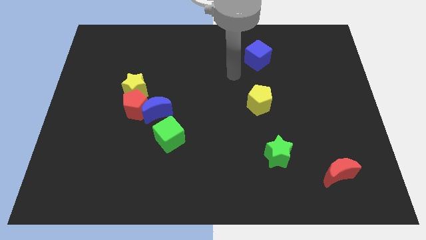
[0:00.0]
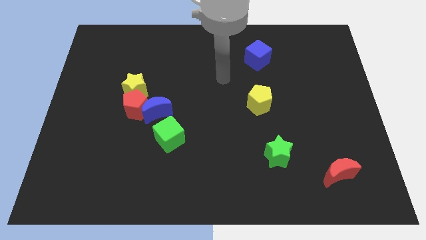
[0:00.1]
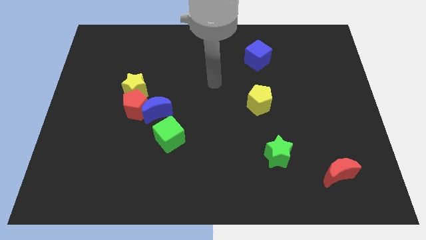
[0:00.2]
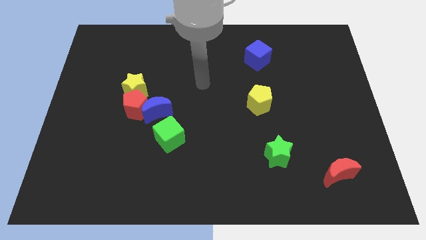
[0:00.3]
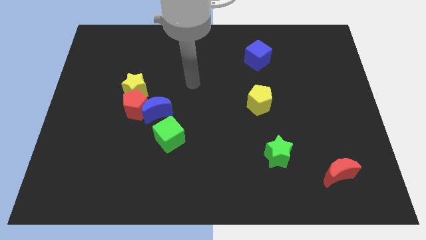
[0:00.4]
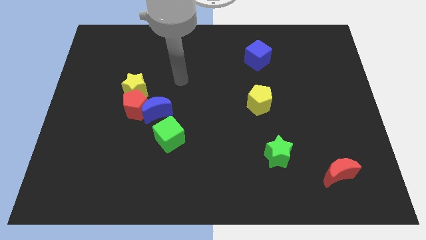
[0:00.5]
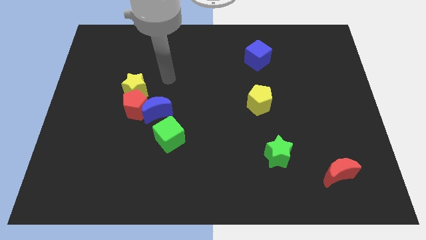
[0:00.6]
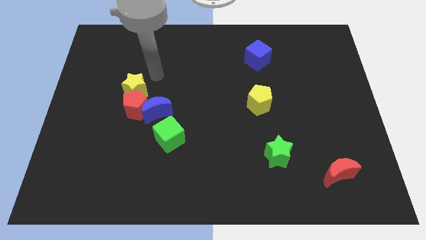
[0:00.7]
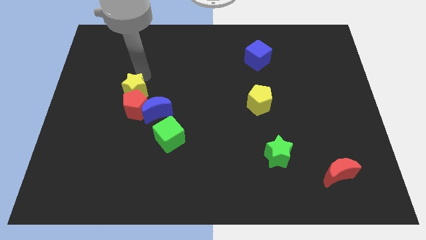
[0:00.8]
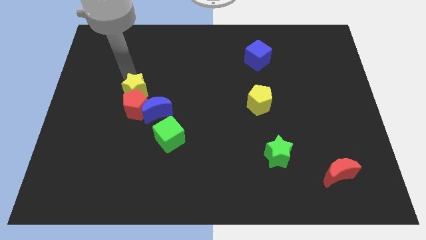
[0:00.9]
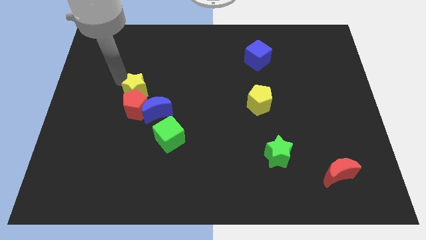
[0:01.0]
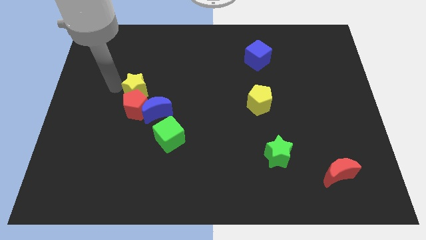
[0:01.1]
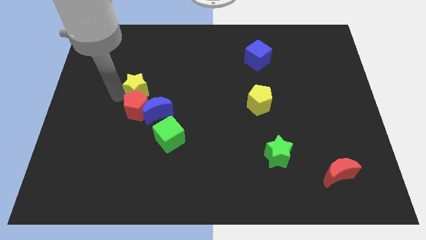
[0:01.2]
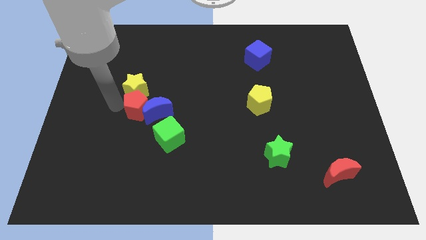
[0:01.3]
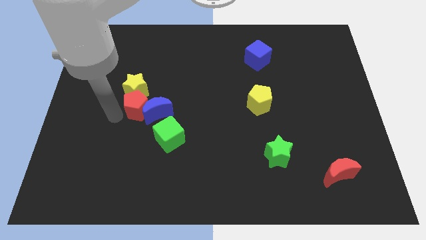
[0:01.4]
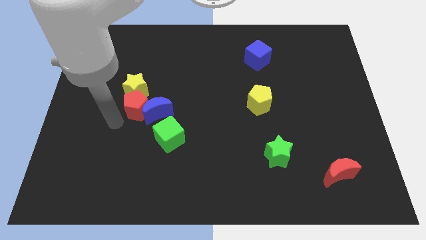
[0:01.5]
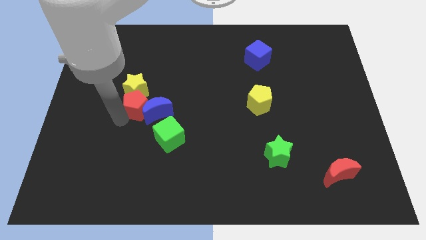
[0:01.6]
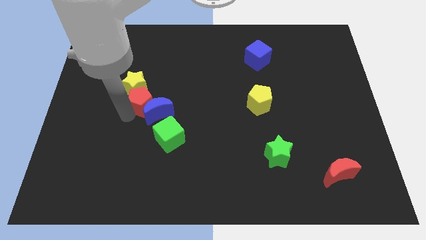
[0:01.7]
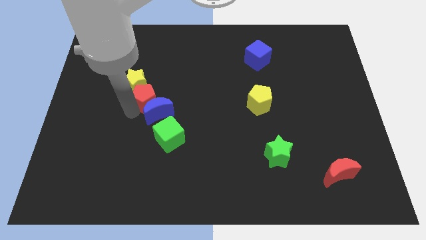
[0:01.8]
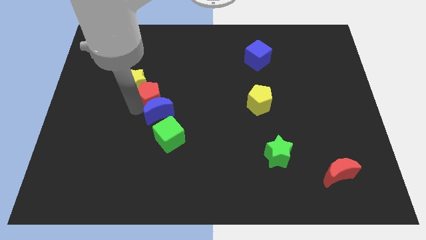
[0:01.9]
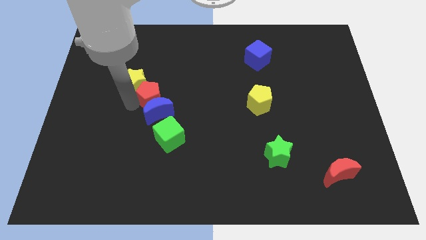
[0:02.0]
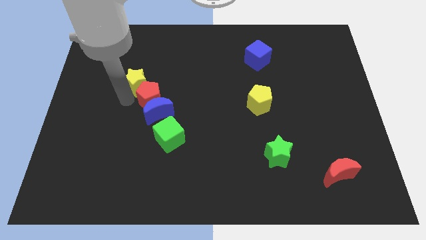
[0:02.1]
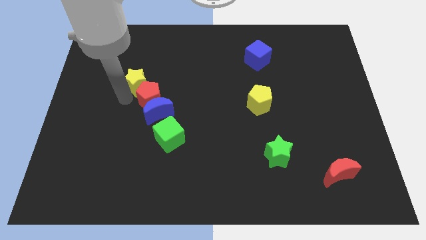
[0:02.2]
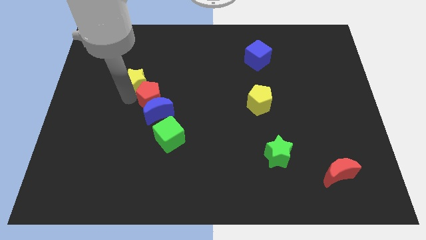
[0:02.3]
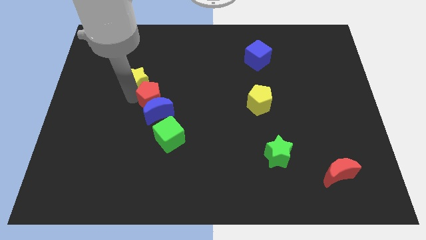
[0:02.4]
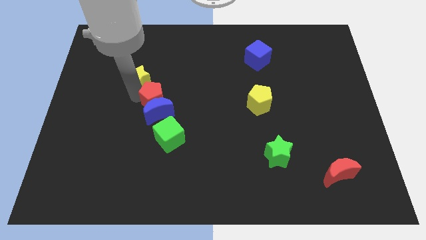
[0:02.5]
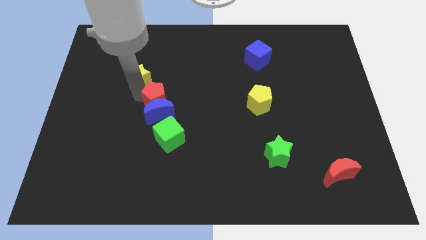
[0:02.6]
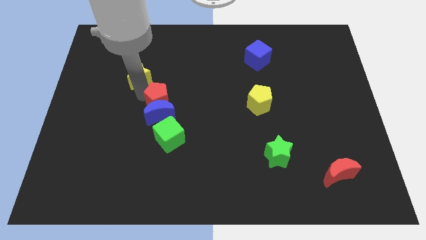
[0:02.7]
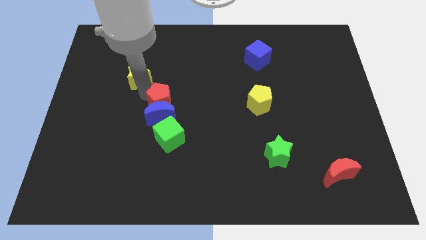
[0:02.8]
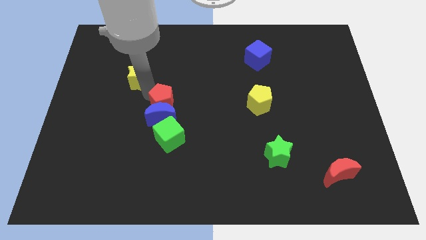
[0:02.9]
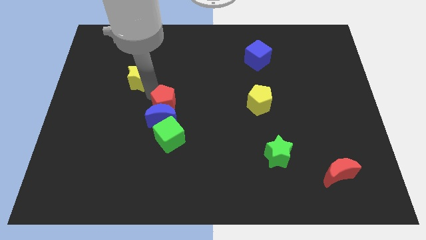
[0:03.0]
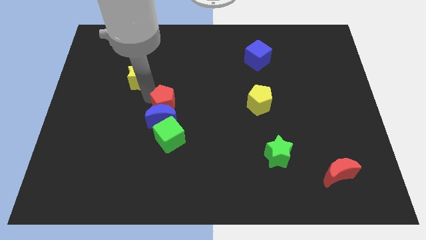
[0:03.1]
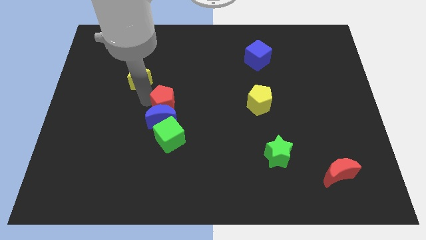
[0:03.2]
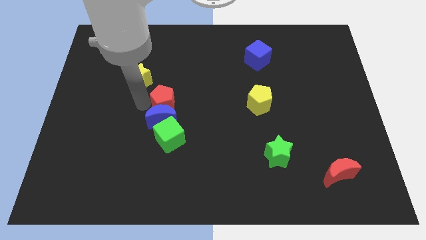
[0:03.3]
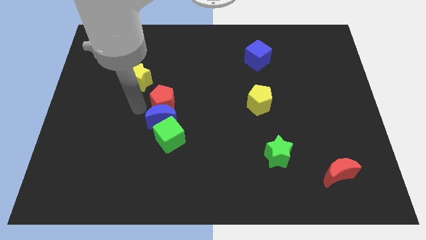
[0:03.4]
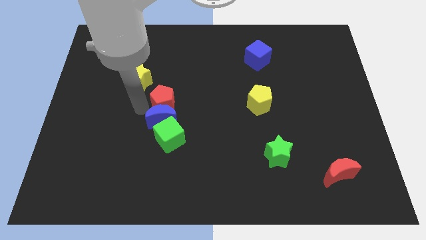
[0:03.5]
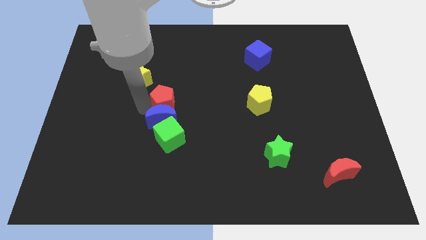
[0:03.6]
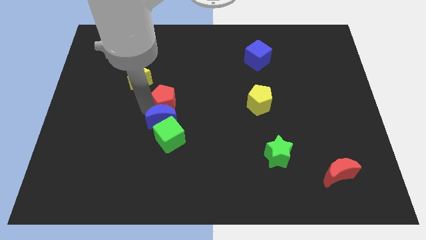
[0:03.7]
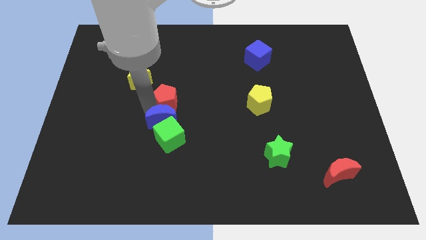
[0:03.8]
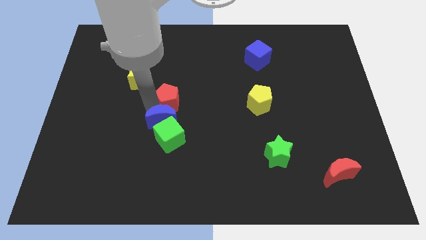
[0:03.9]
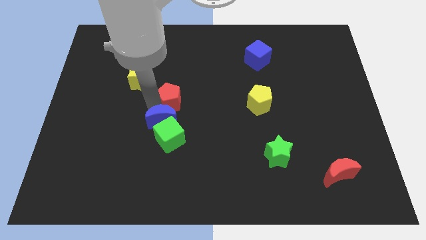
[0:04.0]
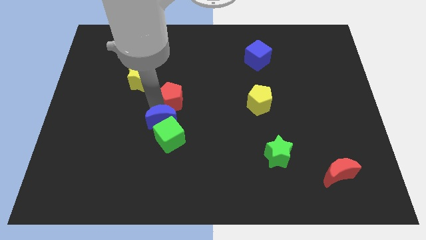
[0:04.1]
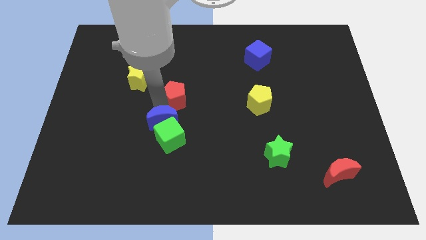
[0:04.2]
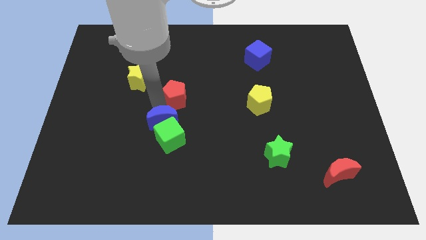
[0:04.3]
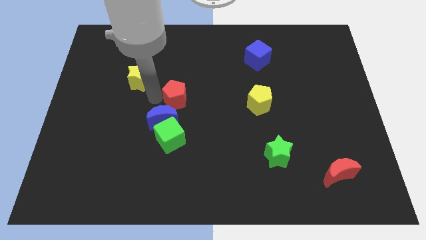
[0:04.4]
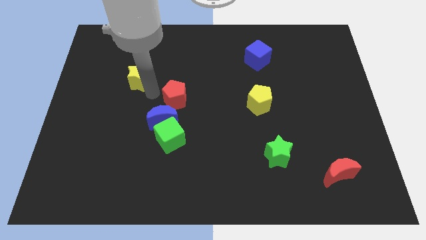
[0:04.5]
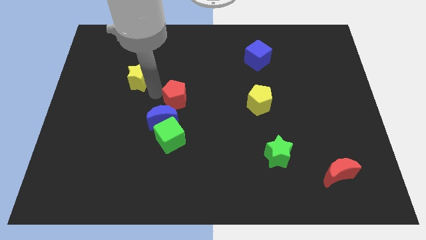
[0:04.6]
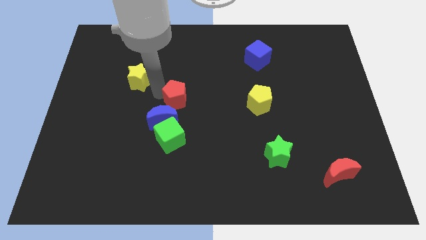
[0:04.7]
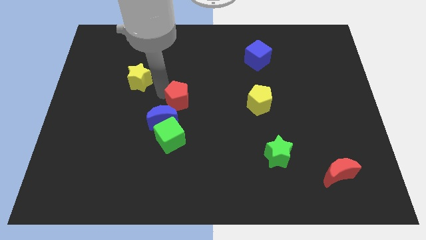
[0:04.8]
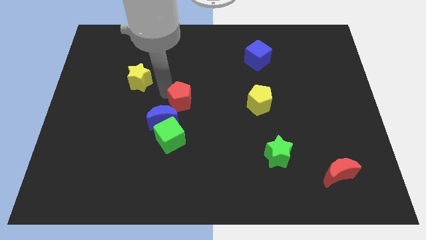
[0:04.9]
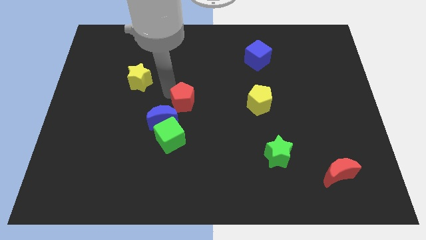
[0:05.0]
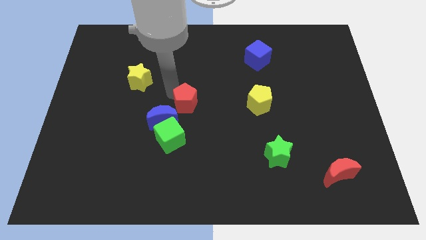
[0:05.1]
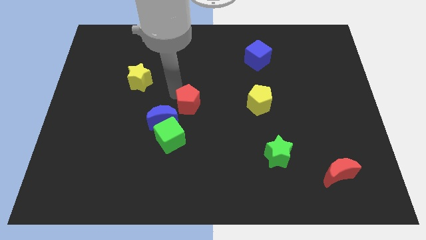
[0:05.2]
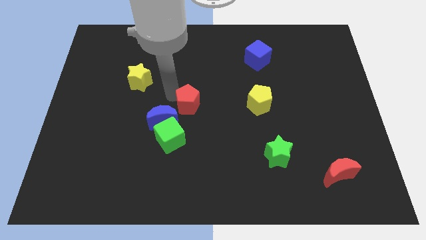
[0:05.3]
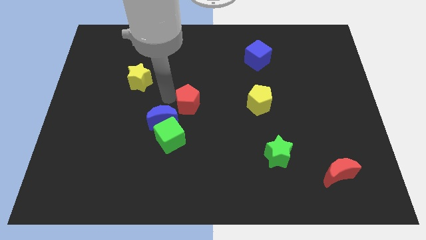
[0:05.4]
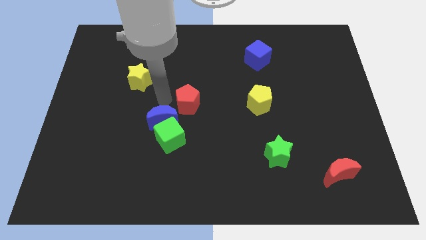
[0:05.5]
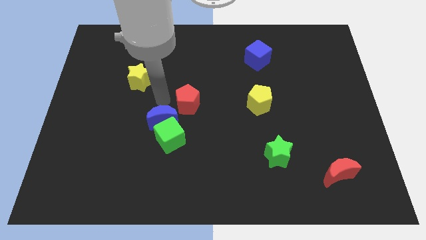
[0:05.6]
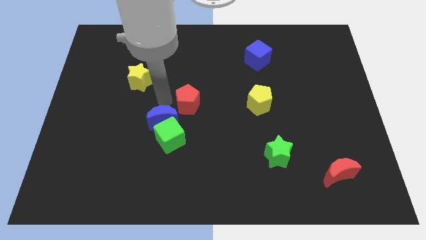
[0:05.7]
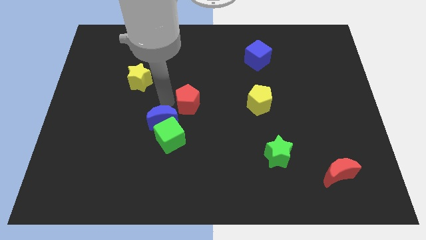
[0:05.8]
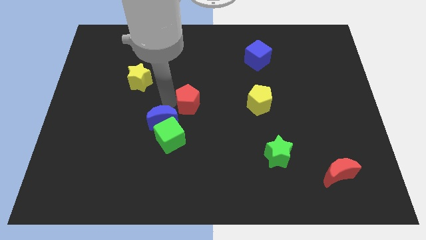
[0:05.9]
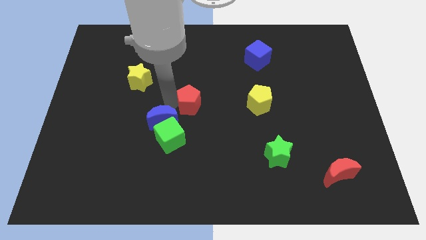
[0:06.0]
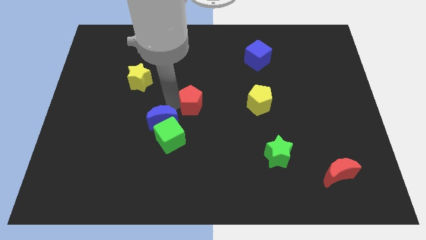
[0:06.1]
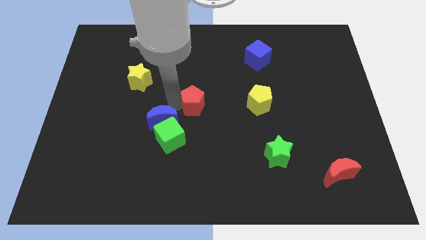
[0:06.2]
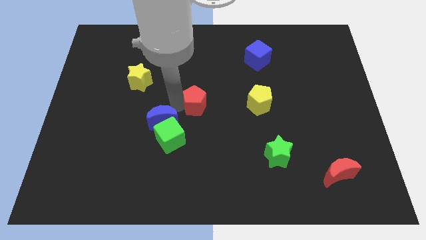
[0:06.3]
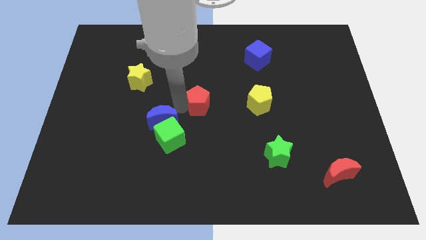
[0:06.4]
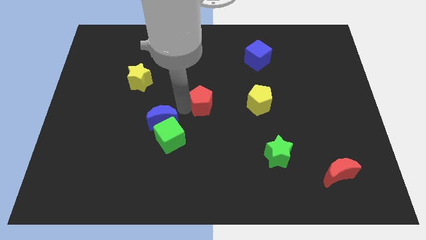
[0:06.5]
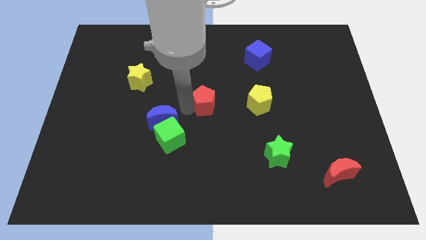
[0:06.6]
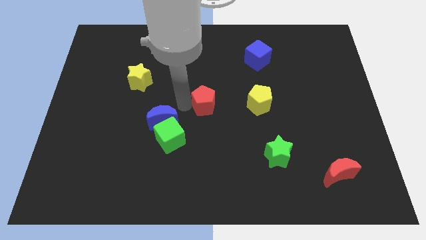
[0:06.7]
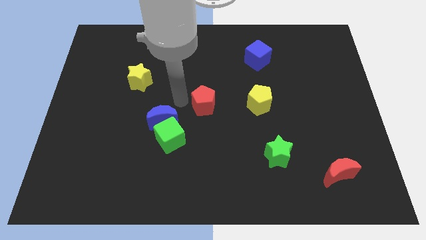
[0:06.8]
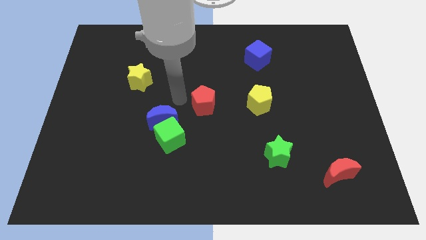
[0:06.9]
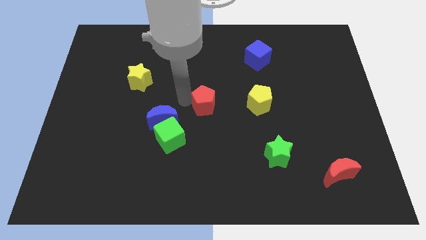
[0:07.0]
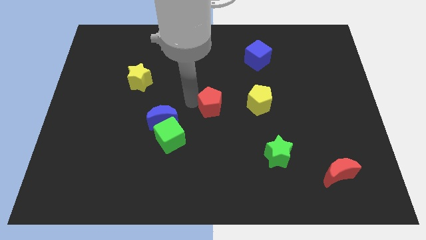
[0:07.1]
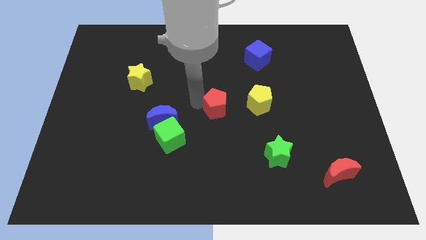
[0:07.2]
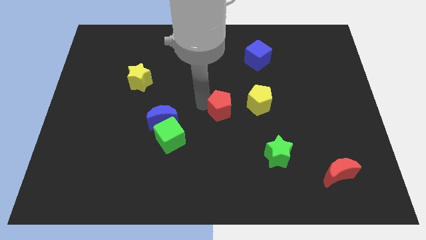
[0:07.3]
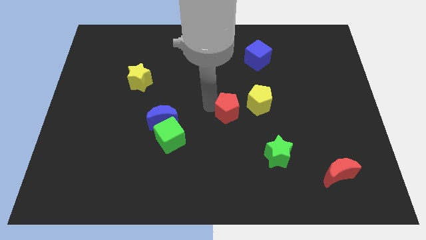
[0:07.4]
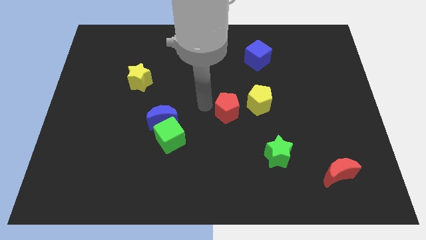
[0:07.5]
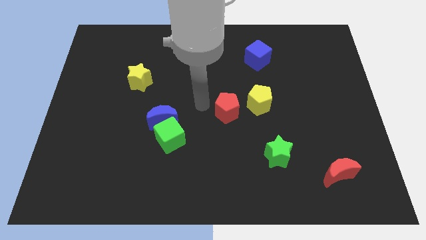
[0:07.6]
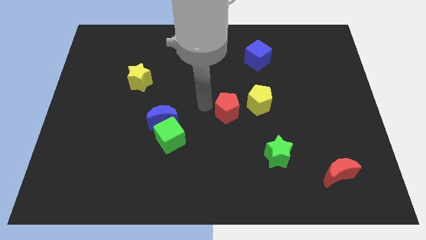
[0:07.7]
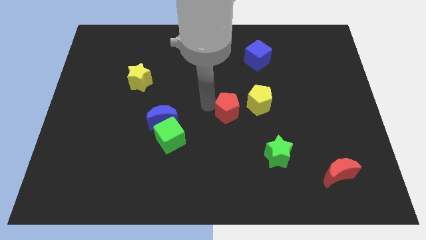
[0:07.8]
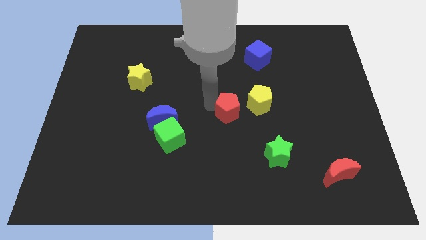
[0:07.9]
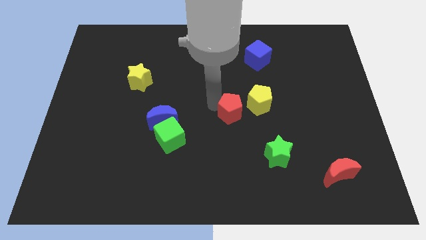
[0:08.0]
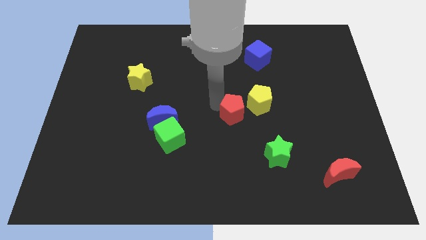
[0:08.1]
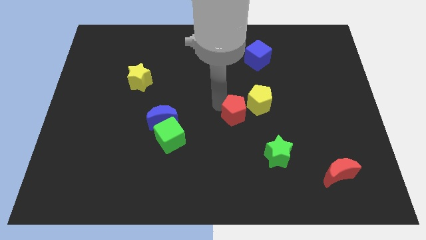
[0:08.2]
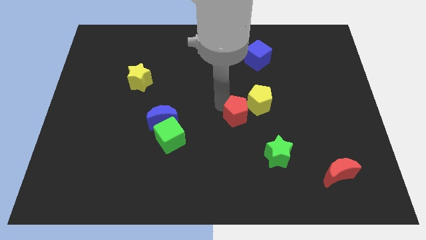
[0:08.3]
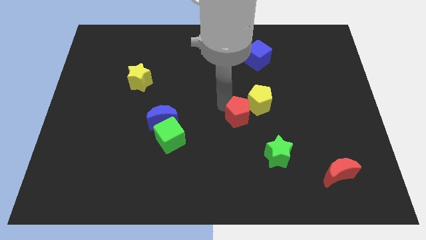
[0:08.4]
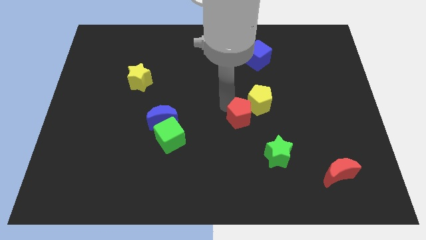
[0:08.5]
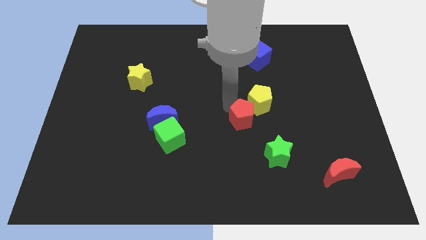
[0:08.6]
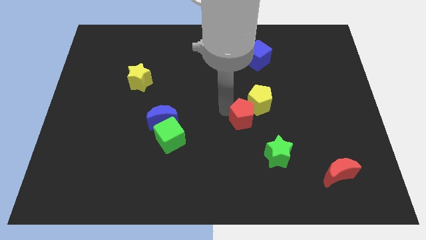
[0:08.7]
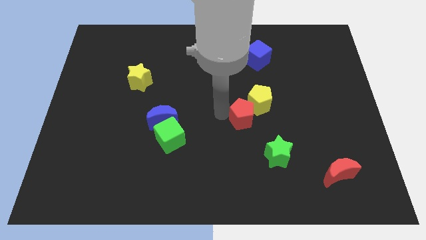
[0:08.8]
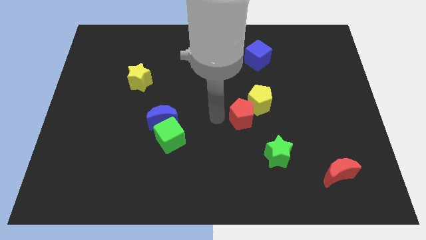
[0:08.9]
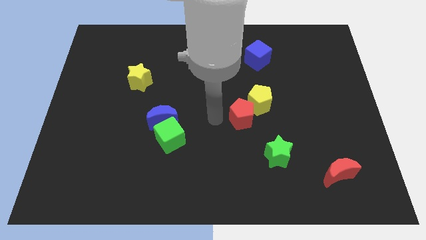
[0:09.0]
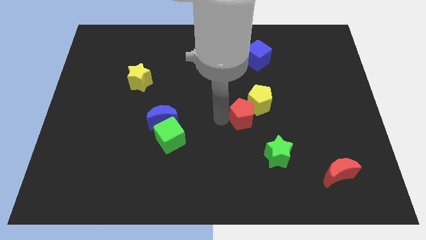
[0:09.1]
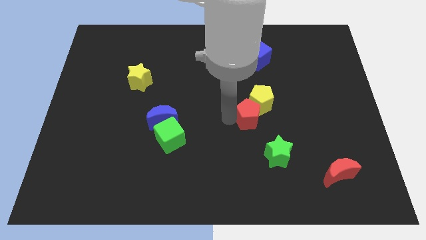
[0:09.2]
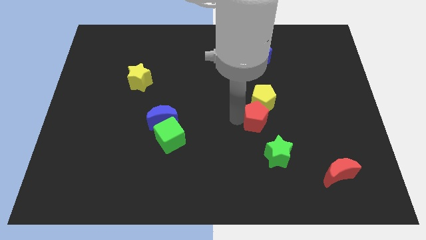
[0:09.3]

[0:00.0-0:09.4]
put the red pentagon to the top side of the green star
